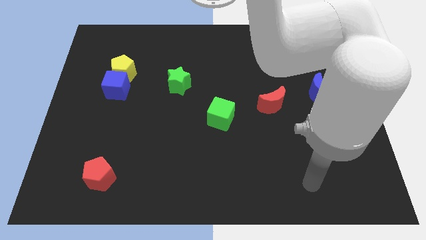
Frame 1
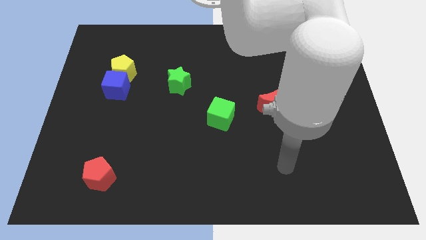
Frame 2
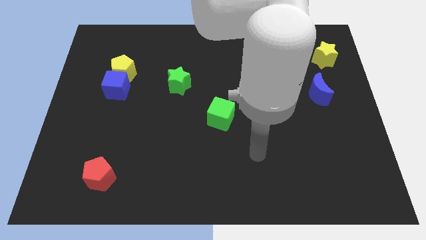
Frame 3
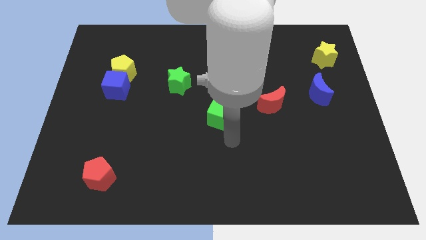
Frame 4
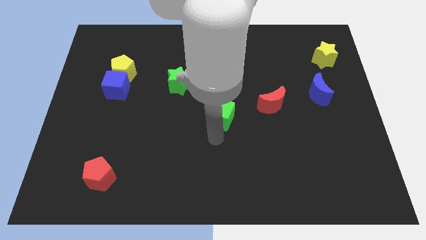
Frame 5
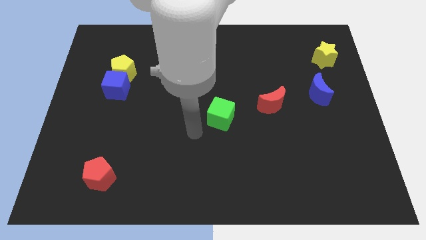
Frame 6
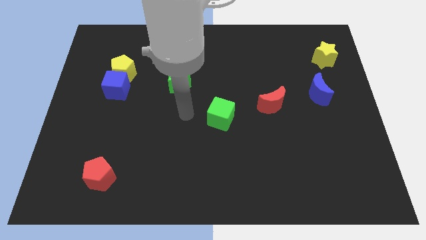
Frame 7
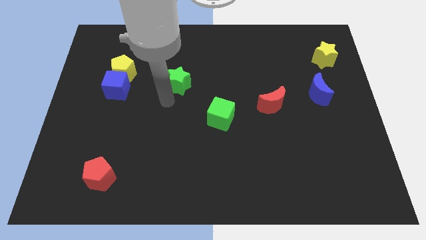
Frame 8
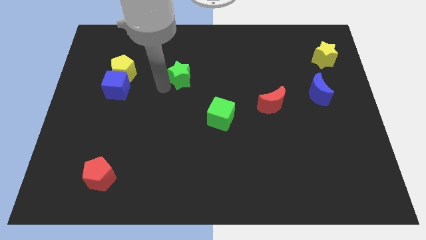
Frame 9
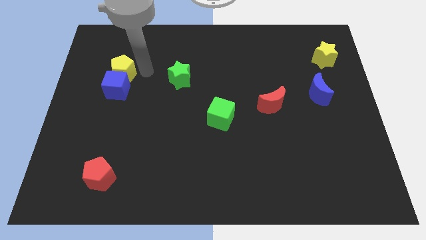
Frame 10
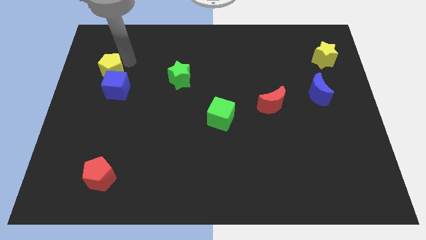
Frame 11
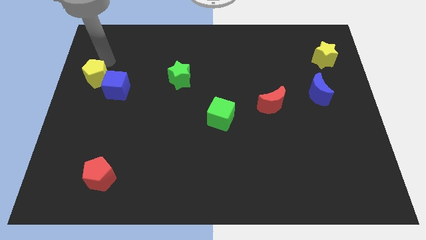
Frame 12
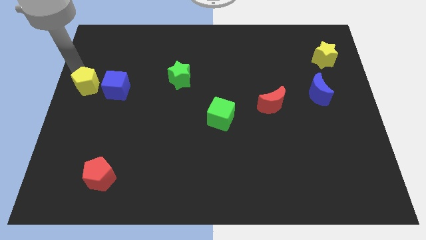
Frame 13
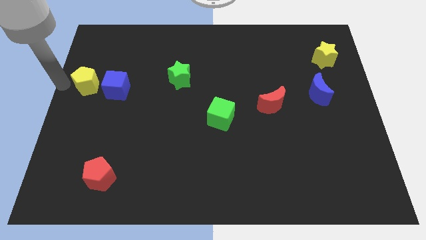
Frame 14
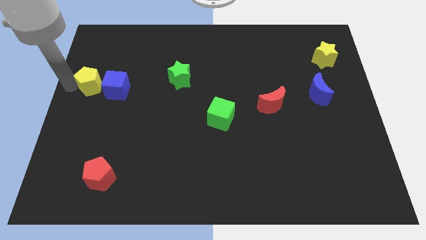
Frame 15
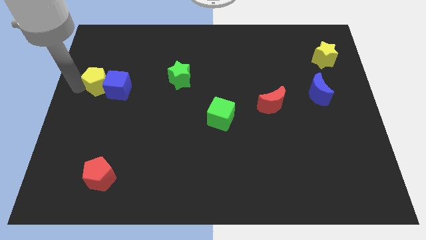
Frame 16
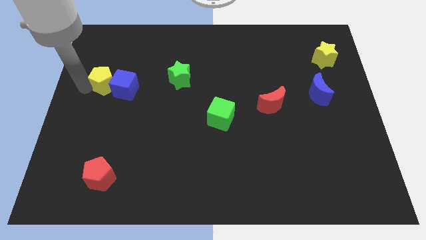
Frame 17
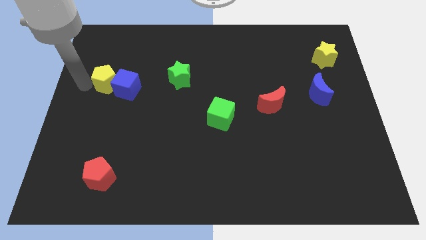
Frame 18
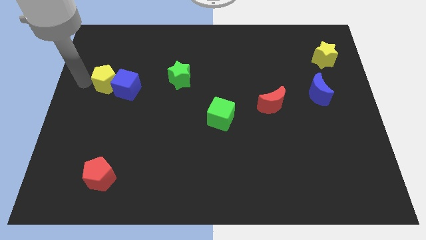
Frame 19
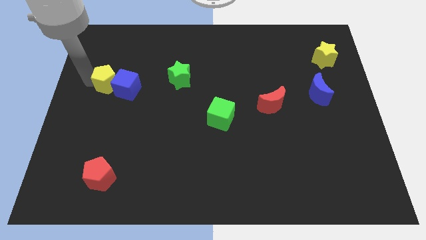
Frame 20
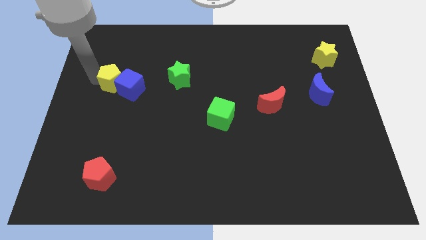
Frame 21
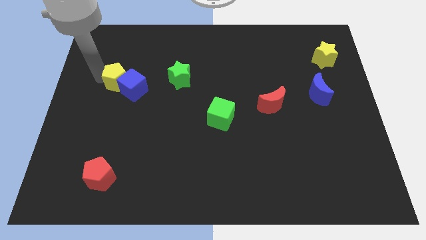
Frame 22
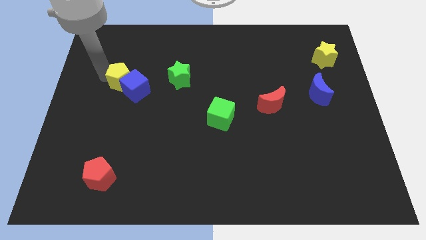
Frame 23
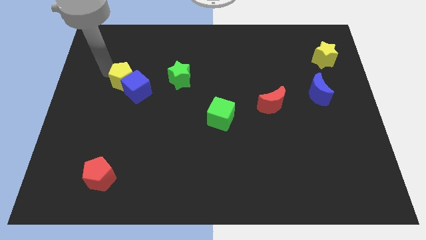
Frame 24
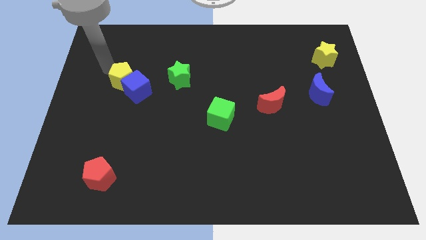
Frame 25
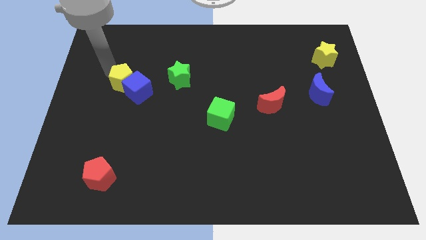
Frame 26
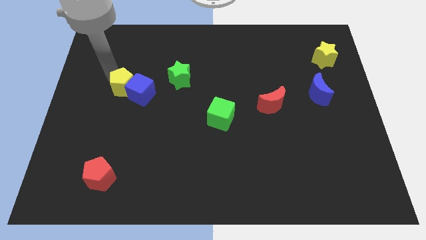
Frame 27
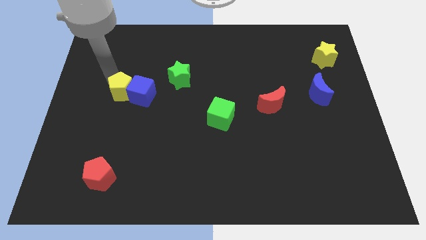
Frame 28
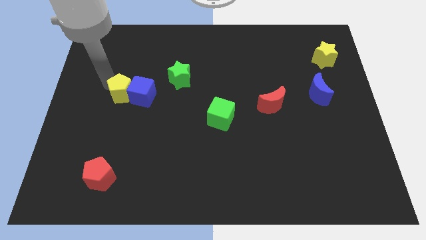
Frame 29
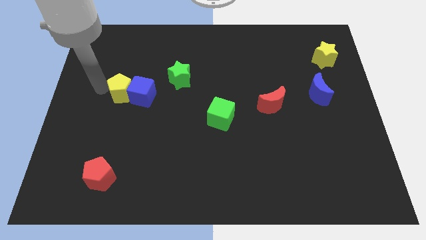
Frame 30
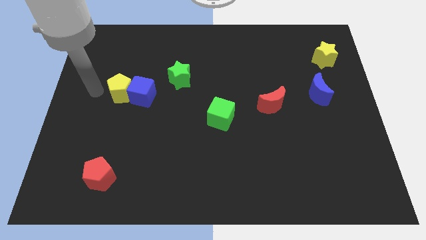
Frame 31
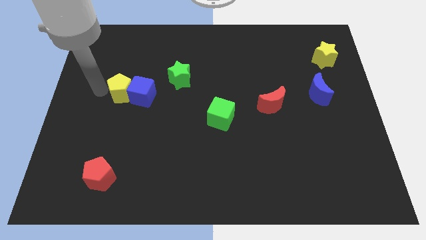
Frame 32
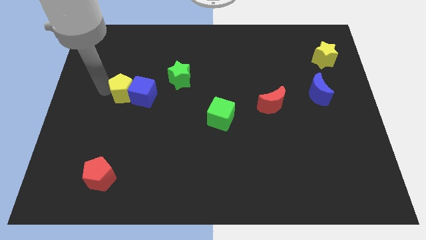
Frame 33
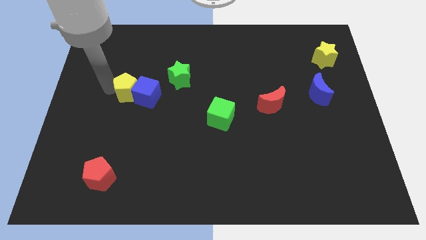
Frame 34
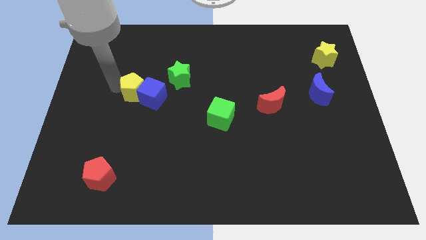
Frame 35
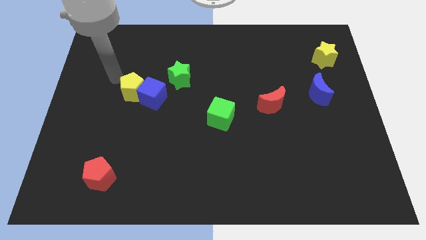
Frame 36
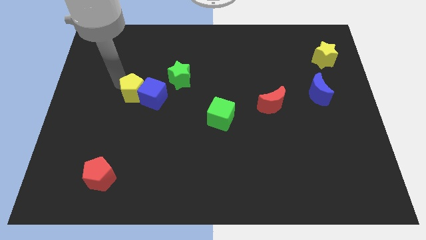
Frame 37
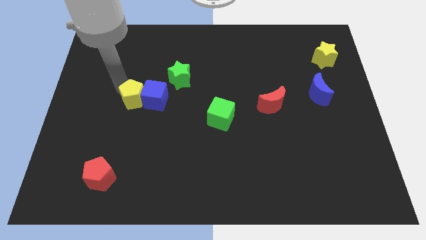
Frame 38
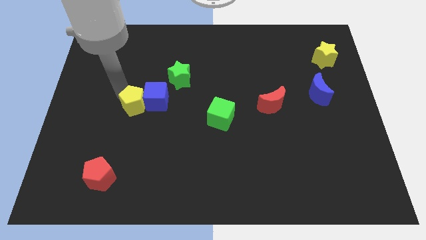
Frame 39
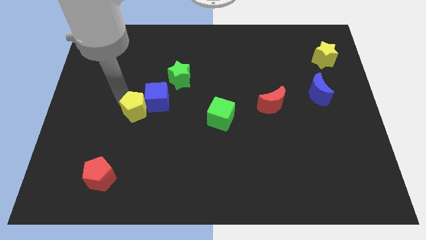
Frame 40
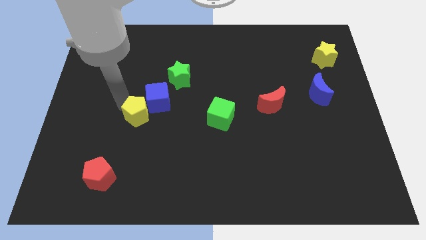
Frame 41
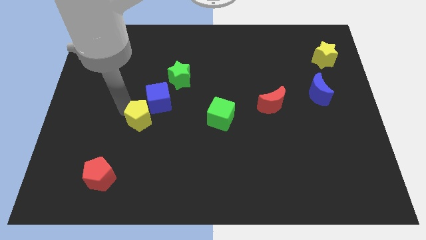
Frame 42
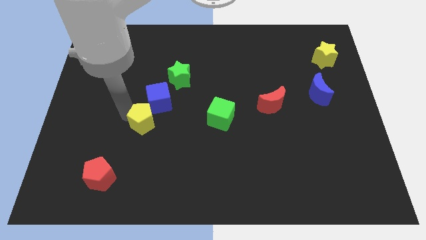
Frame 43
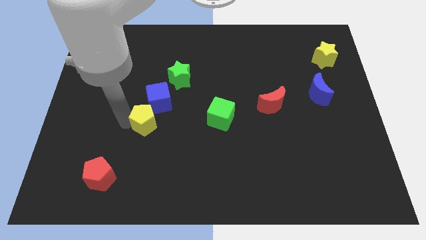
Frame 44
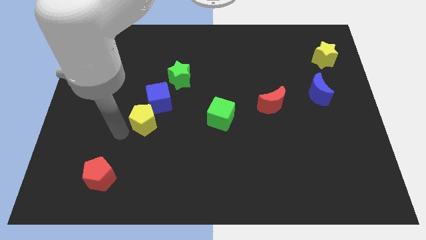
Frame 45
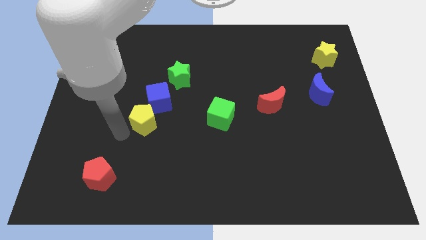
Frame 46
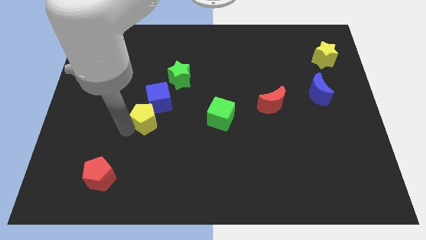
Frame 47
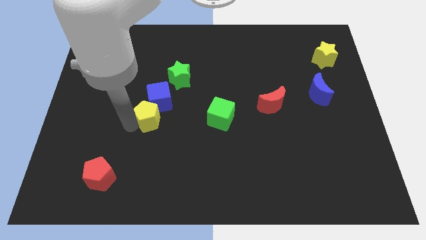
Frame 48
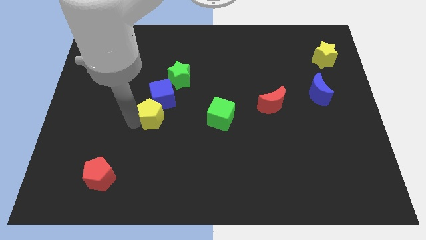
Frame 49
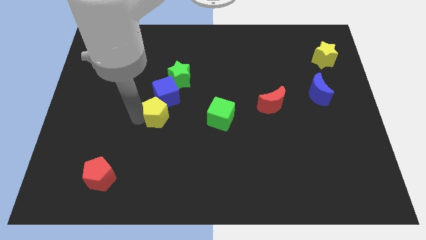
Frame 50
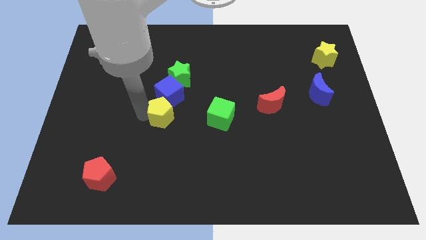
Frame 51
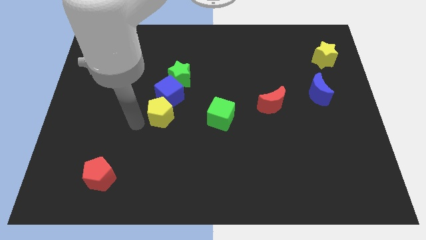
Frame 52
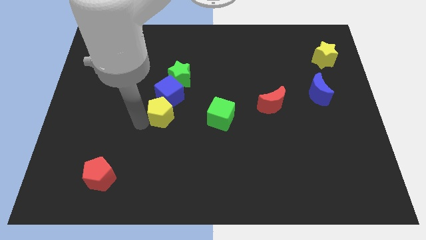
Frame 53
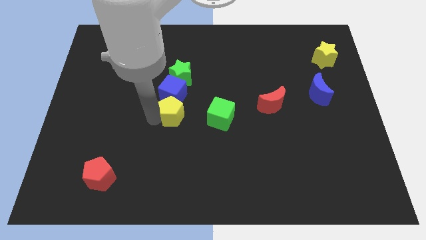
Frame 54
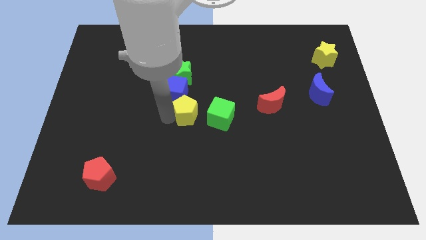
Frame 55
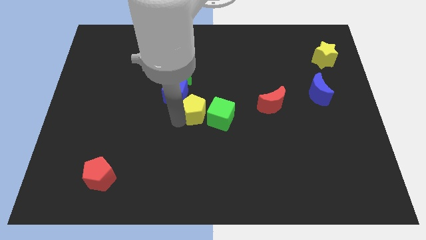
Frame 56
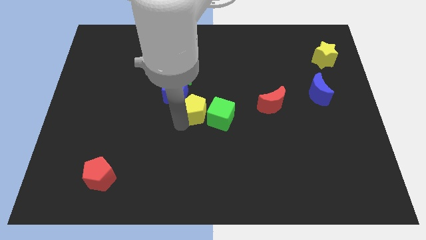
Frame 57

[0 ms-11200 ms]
move the yellow pentagon to the green cube

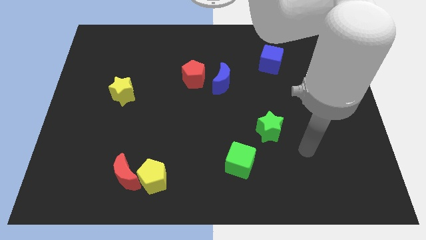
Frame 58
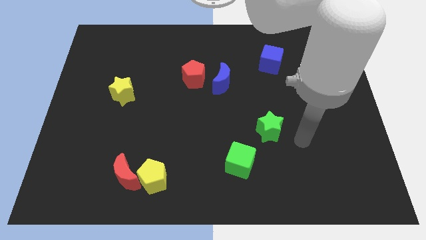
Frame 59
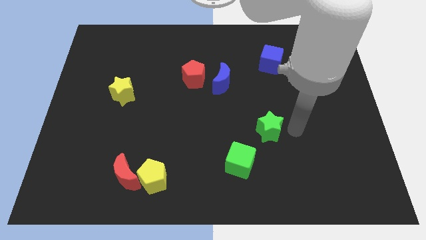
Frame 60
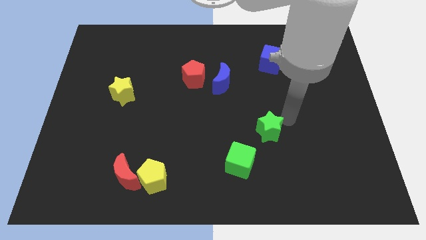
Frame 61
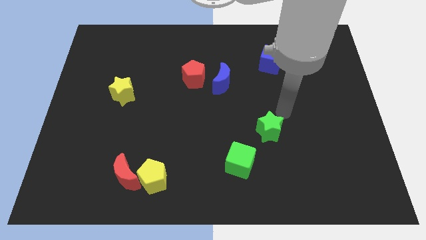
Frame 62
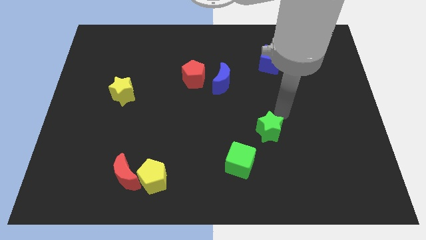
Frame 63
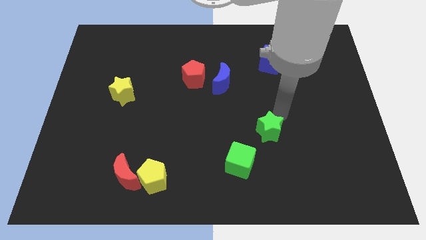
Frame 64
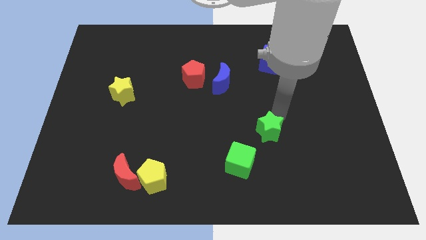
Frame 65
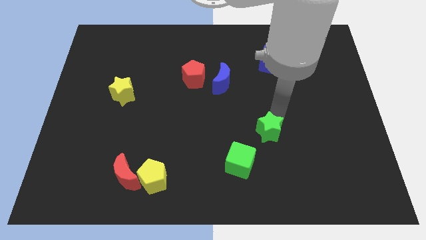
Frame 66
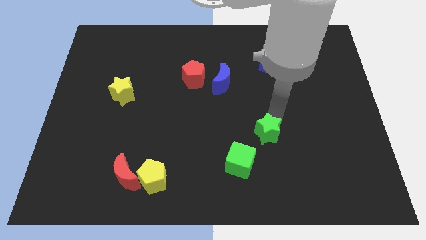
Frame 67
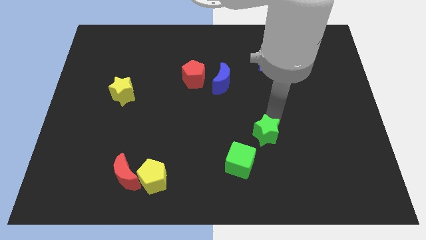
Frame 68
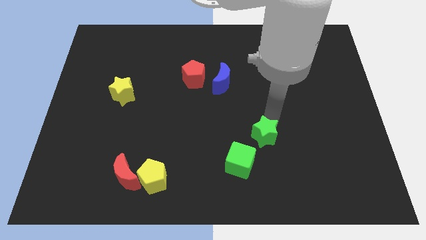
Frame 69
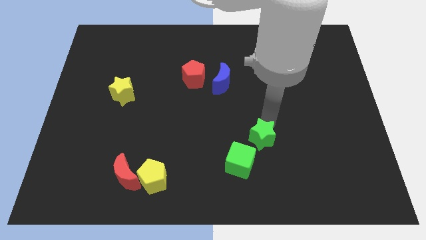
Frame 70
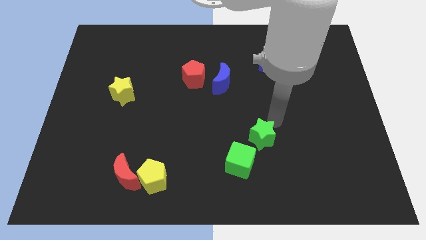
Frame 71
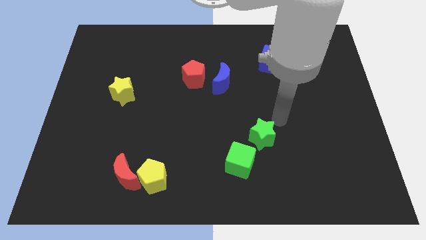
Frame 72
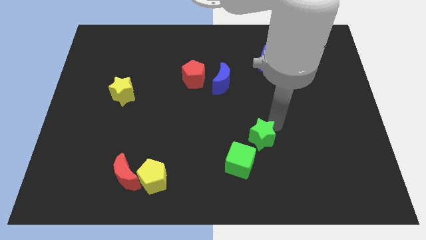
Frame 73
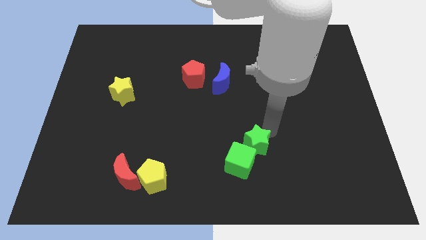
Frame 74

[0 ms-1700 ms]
slide the green star close to the green cube

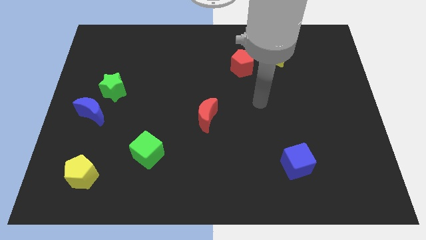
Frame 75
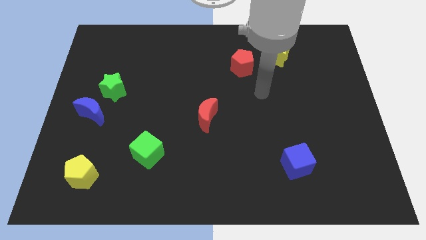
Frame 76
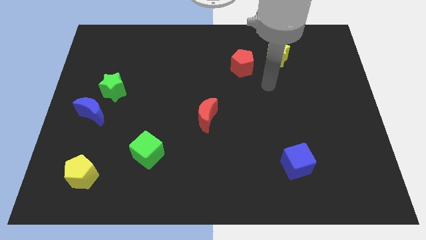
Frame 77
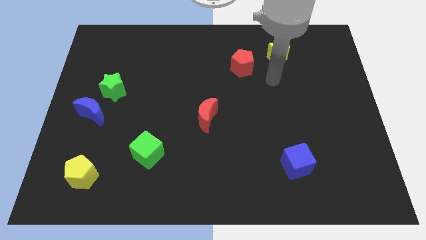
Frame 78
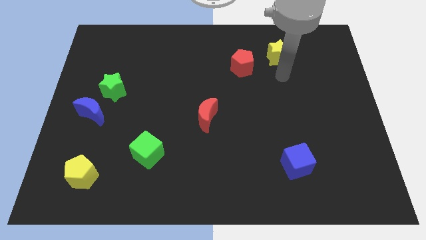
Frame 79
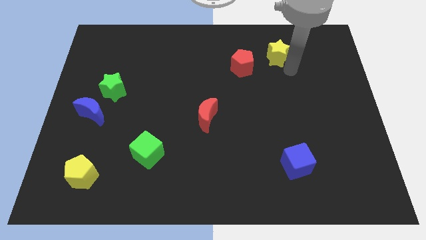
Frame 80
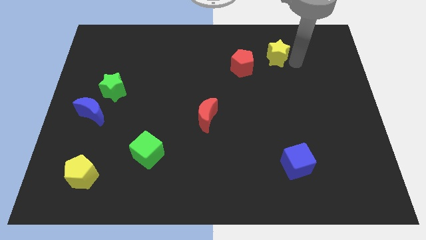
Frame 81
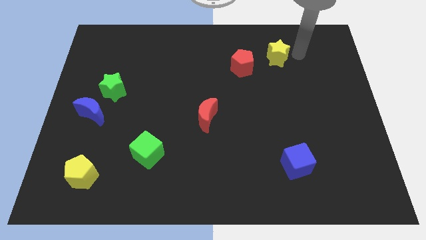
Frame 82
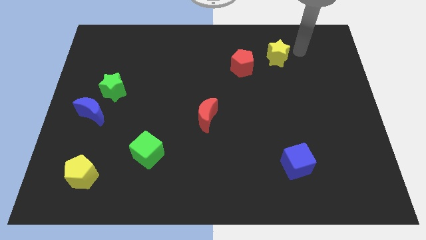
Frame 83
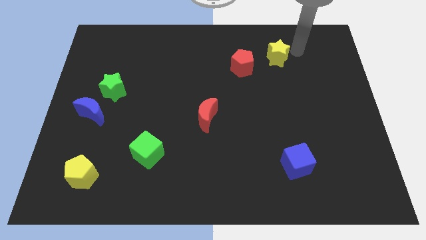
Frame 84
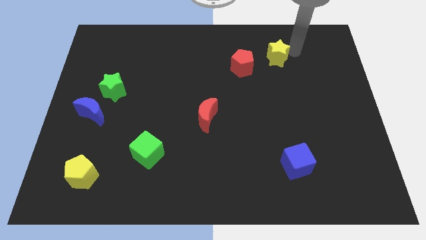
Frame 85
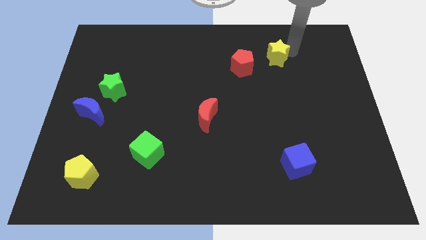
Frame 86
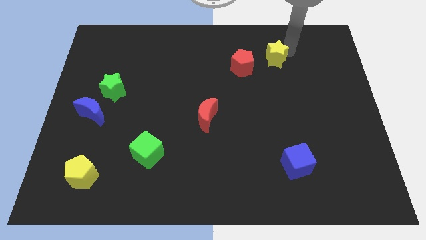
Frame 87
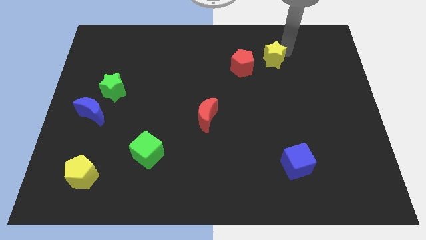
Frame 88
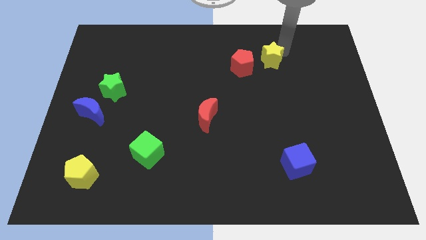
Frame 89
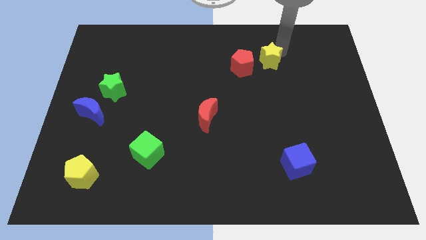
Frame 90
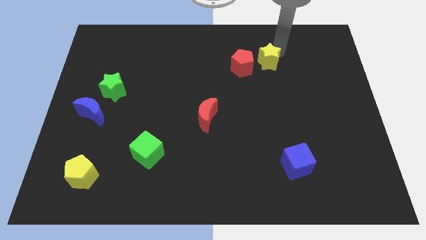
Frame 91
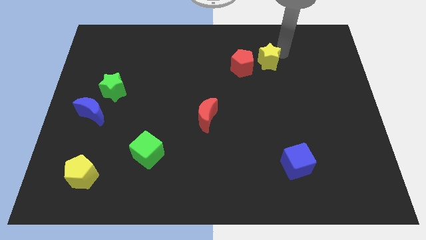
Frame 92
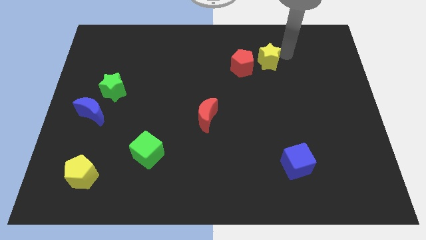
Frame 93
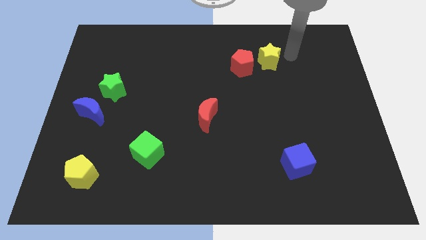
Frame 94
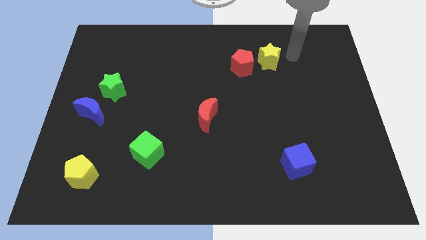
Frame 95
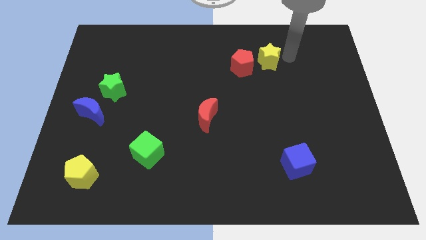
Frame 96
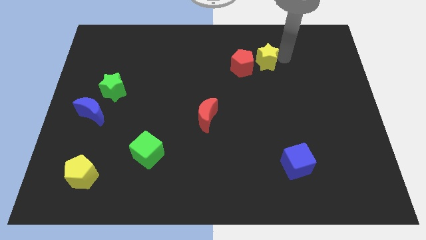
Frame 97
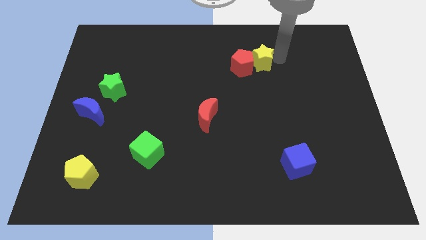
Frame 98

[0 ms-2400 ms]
put the yellow star towards the red pentagon
